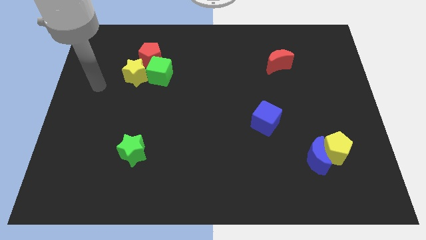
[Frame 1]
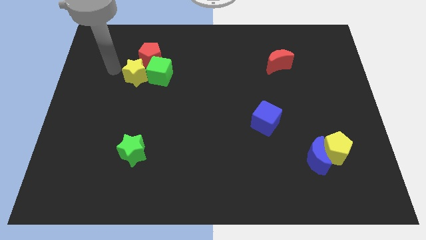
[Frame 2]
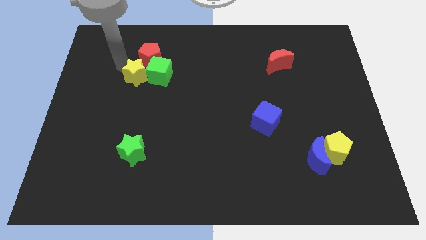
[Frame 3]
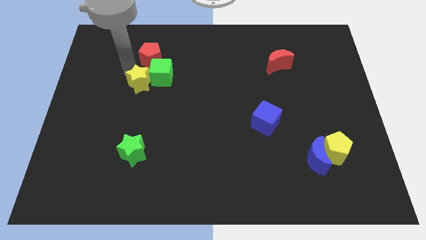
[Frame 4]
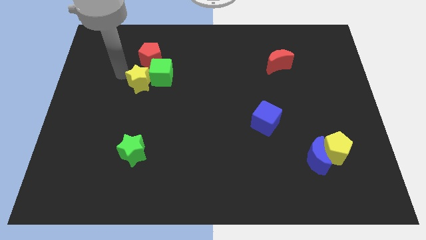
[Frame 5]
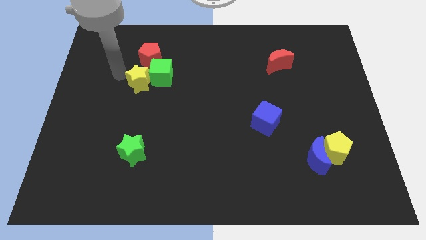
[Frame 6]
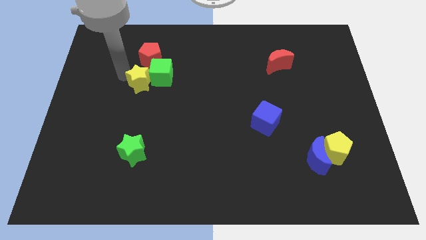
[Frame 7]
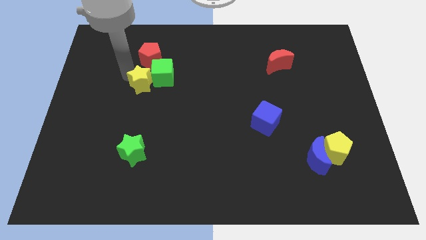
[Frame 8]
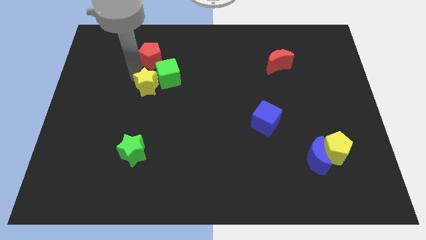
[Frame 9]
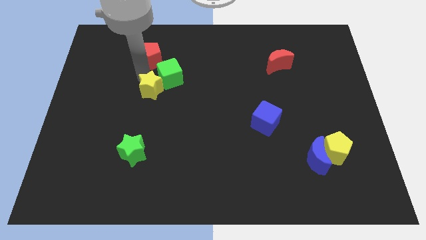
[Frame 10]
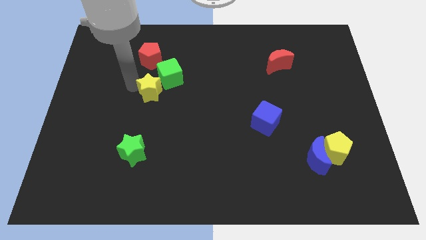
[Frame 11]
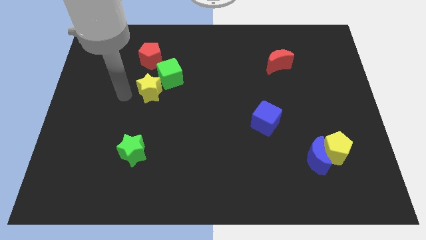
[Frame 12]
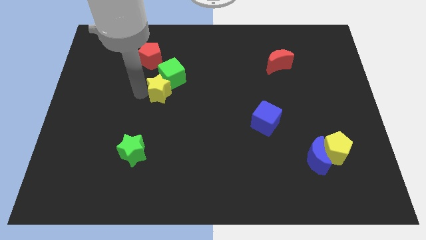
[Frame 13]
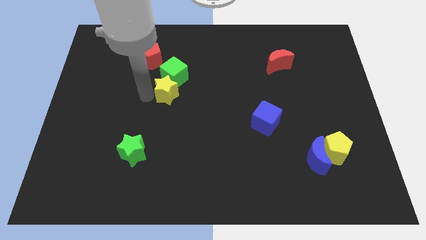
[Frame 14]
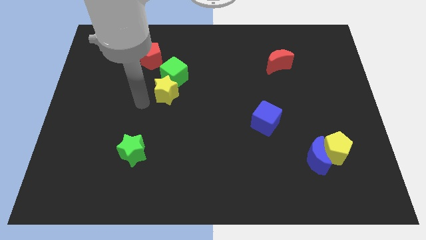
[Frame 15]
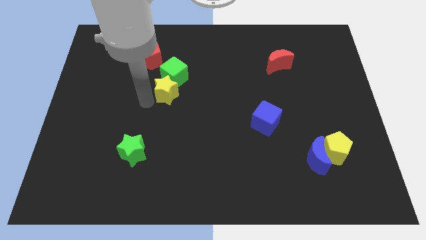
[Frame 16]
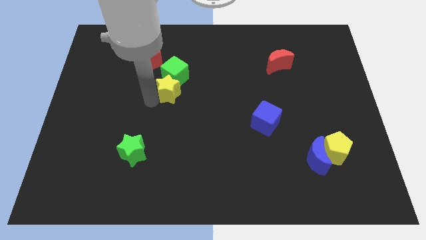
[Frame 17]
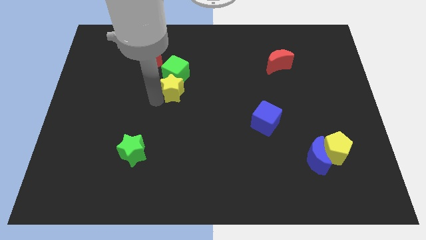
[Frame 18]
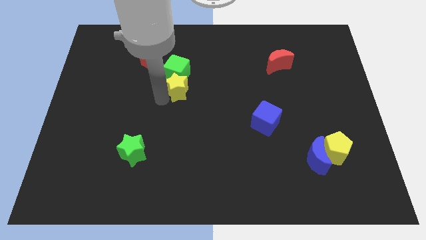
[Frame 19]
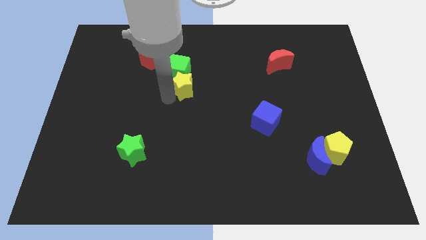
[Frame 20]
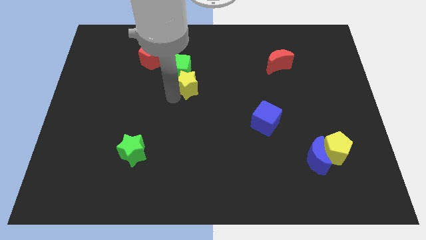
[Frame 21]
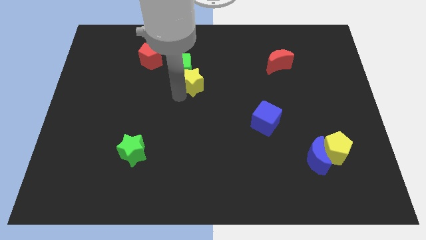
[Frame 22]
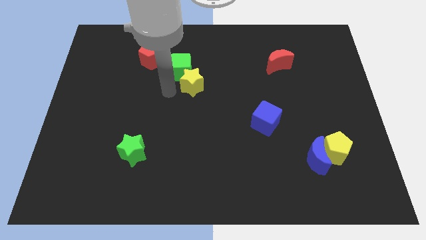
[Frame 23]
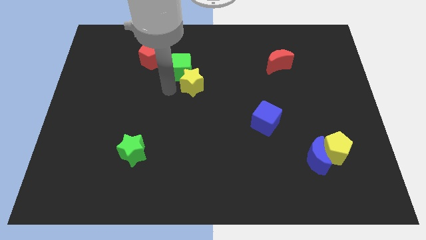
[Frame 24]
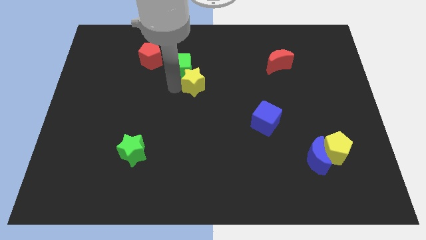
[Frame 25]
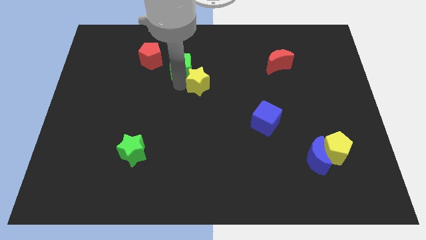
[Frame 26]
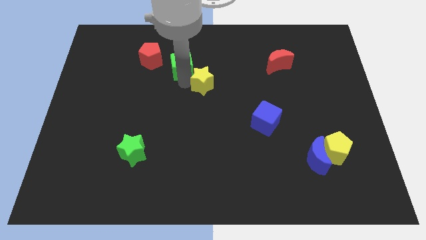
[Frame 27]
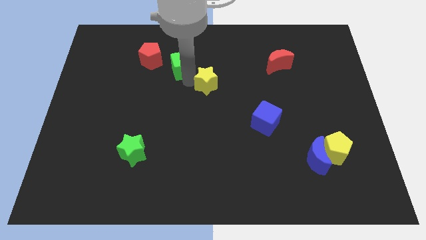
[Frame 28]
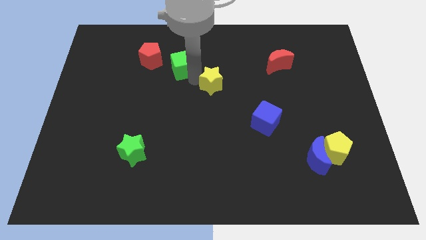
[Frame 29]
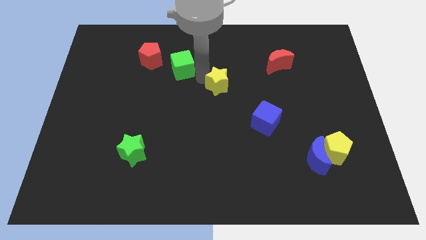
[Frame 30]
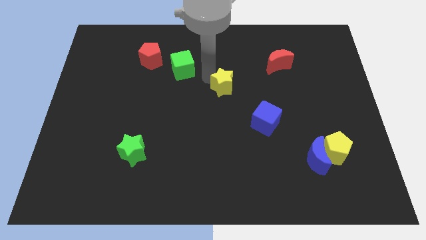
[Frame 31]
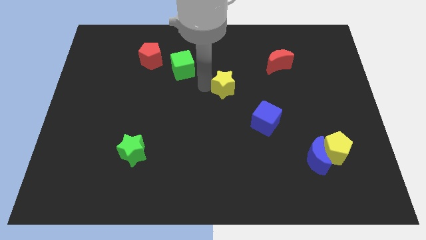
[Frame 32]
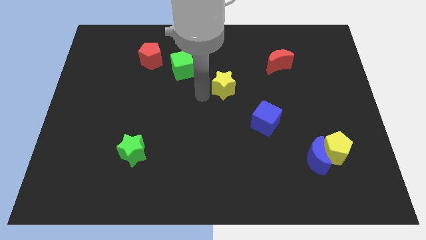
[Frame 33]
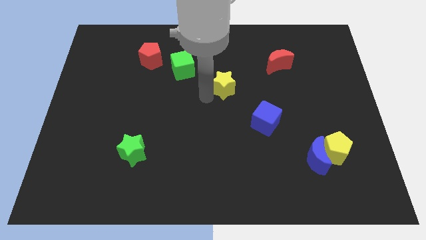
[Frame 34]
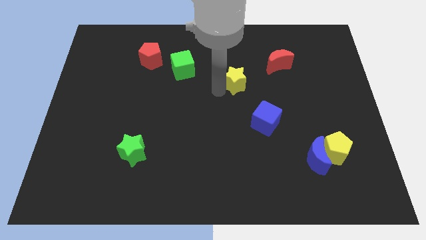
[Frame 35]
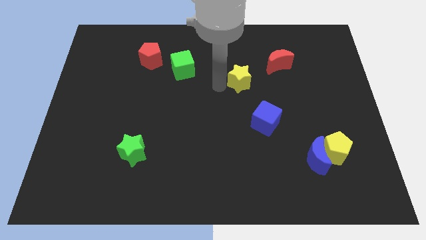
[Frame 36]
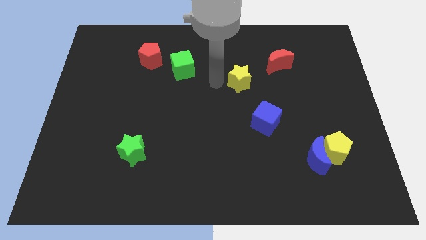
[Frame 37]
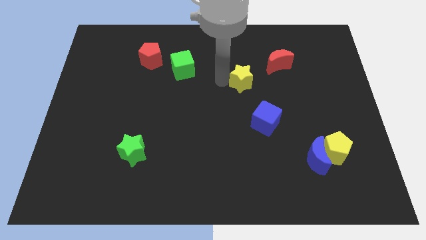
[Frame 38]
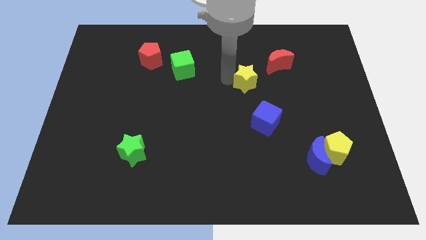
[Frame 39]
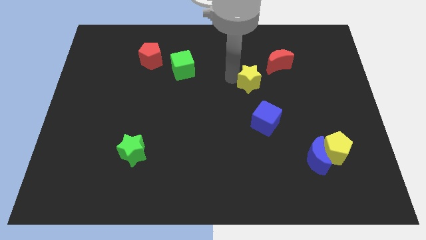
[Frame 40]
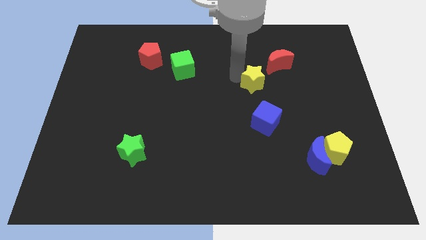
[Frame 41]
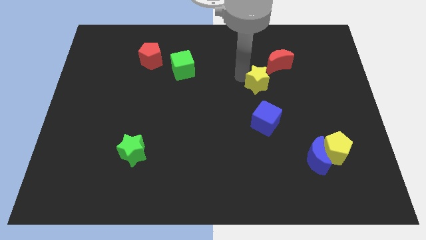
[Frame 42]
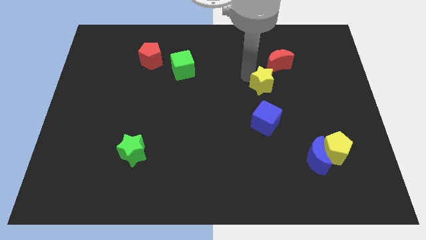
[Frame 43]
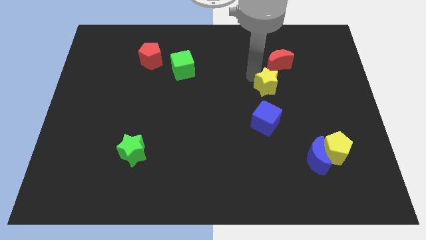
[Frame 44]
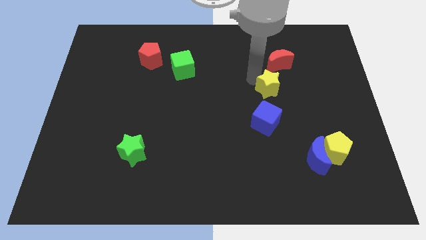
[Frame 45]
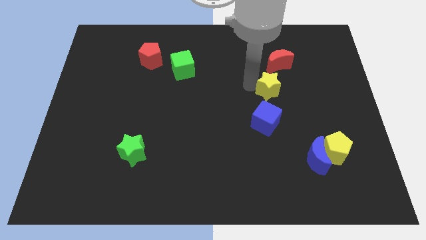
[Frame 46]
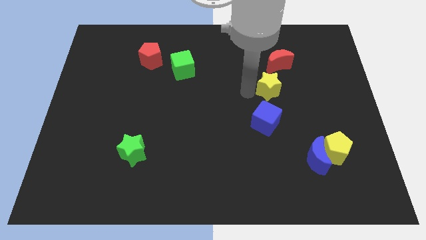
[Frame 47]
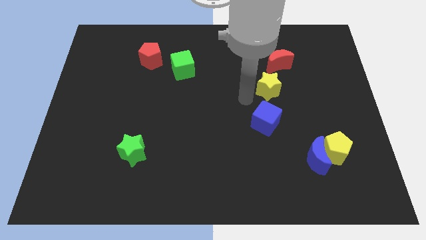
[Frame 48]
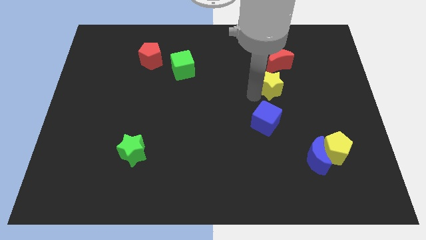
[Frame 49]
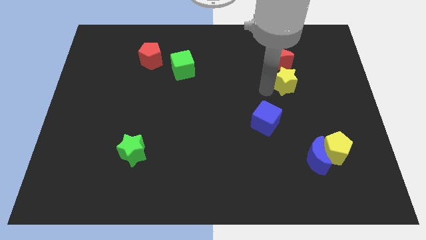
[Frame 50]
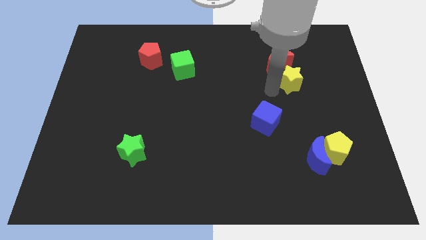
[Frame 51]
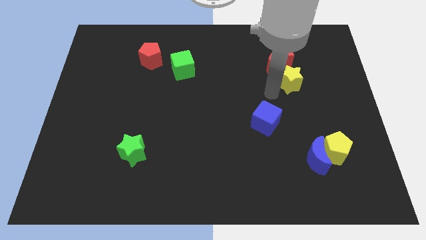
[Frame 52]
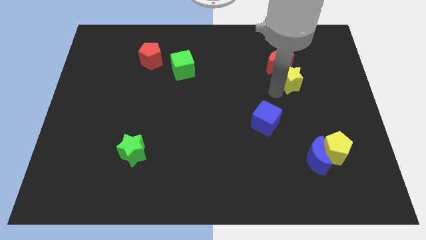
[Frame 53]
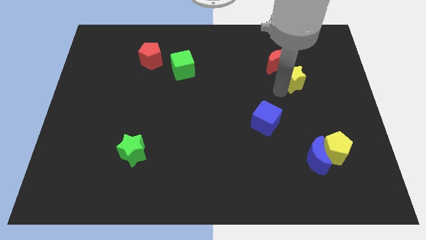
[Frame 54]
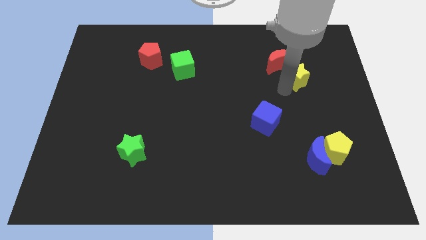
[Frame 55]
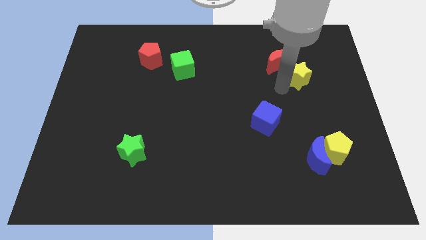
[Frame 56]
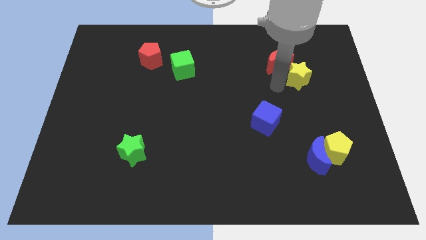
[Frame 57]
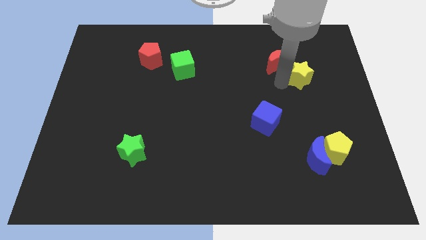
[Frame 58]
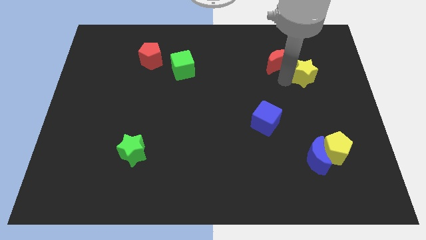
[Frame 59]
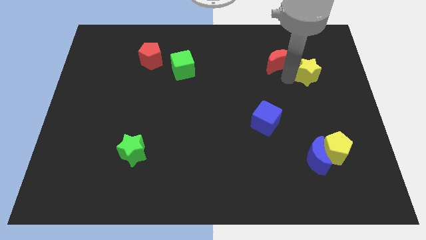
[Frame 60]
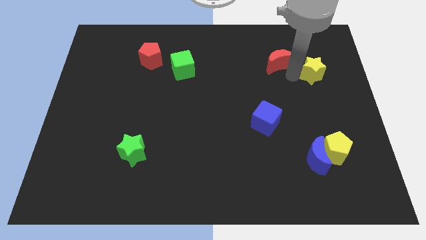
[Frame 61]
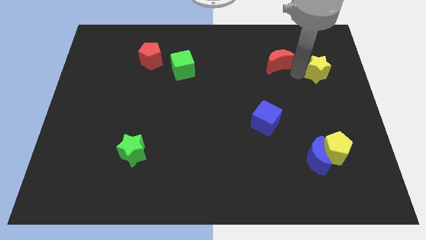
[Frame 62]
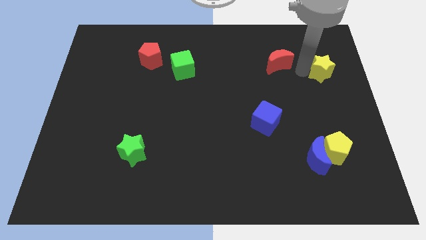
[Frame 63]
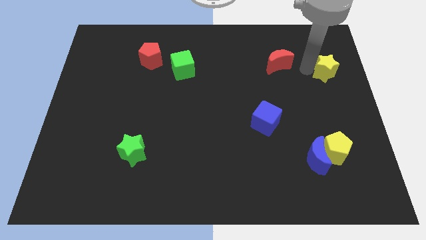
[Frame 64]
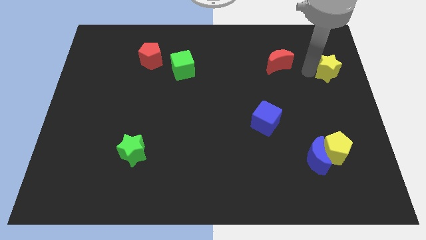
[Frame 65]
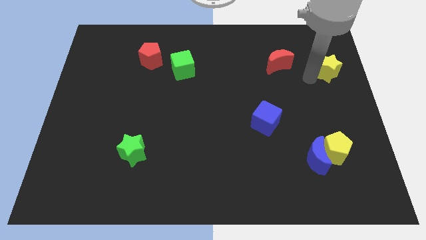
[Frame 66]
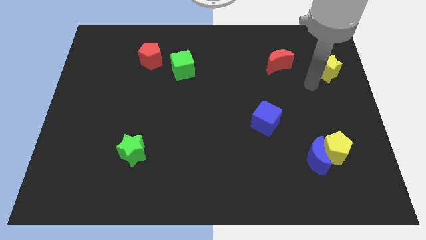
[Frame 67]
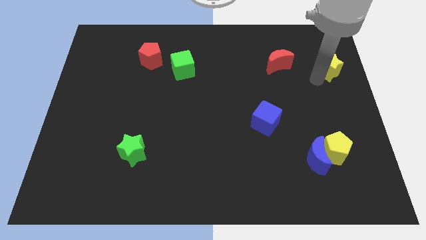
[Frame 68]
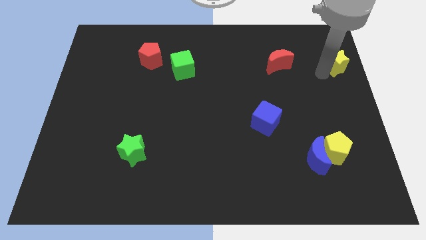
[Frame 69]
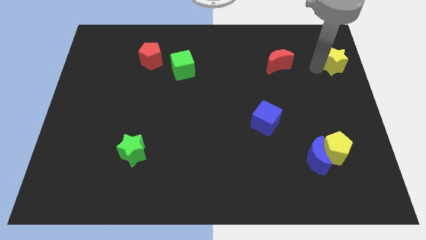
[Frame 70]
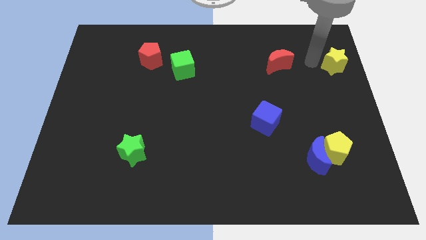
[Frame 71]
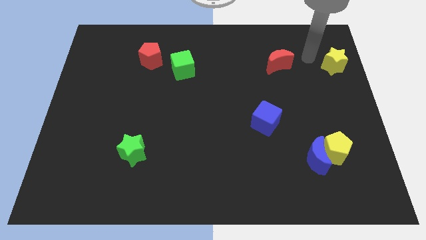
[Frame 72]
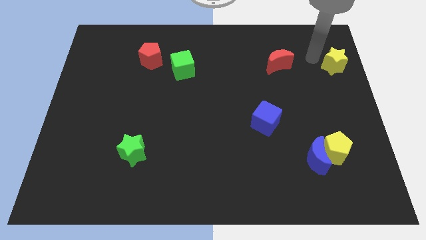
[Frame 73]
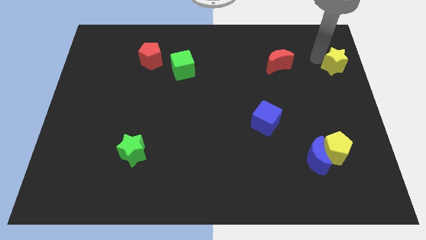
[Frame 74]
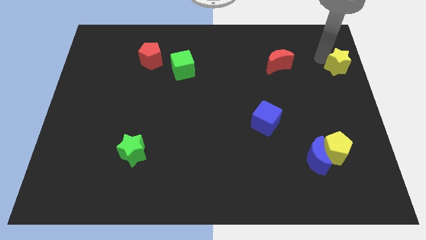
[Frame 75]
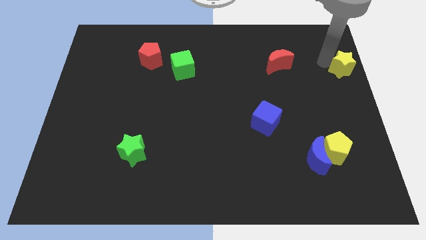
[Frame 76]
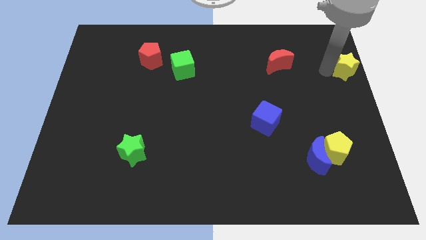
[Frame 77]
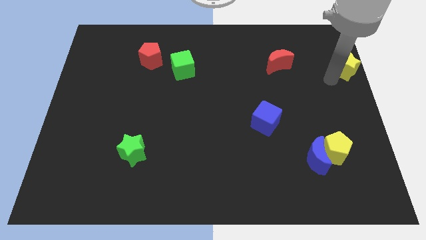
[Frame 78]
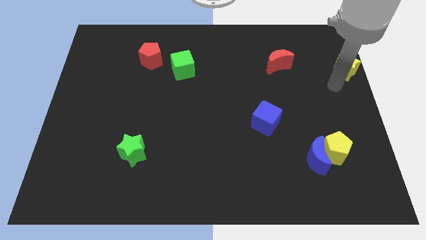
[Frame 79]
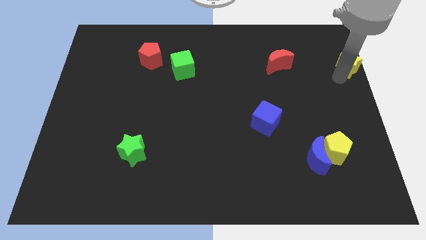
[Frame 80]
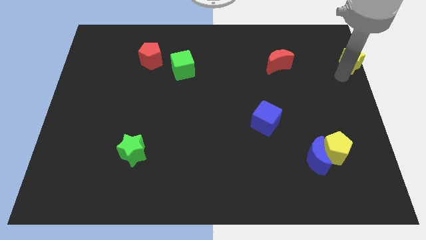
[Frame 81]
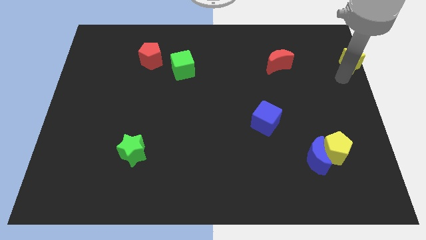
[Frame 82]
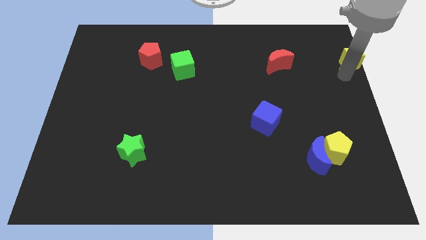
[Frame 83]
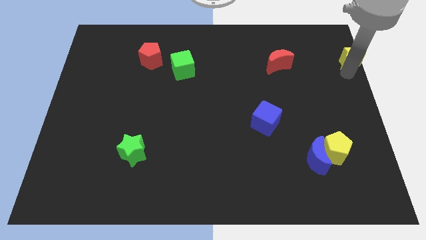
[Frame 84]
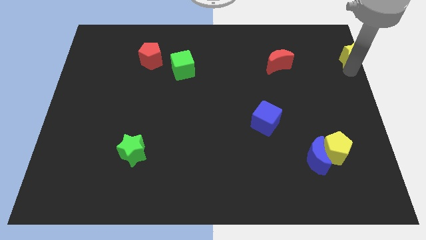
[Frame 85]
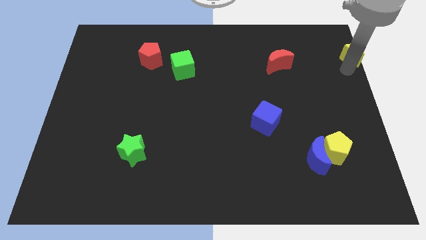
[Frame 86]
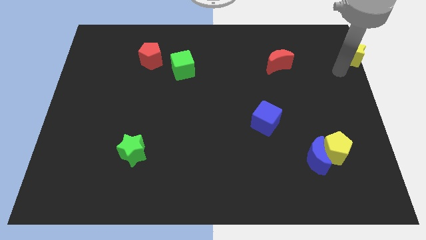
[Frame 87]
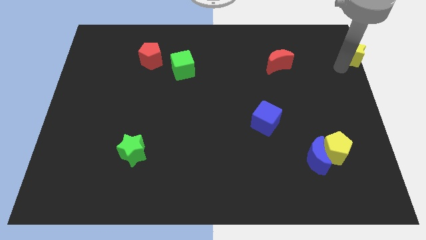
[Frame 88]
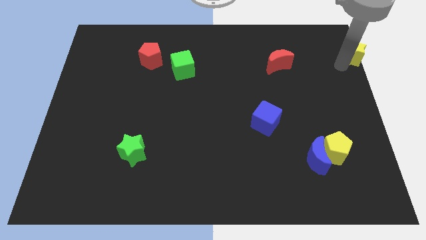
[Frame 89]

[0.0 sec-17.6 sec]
put the yellow star to the top right of the board
